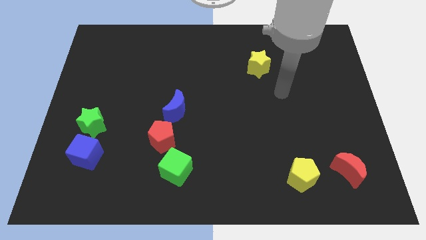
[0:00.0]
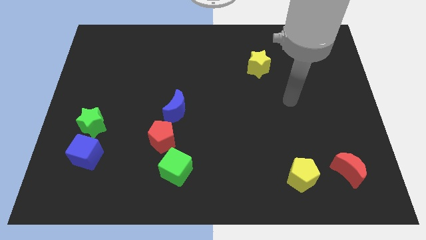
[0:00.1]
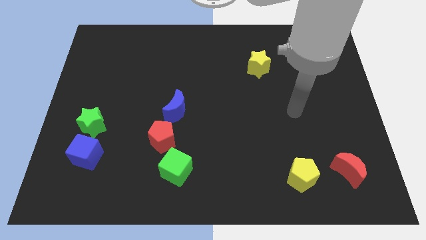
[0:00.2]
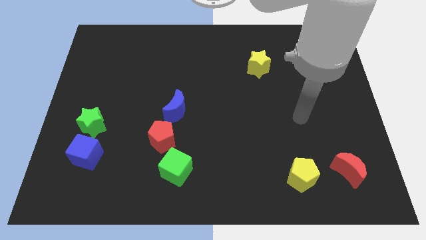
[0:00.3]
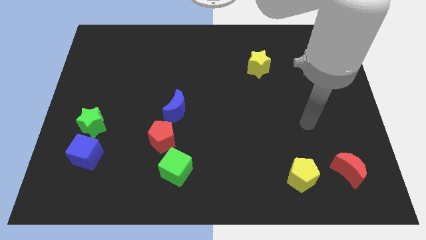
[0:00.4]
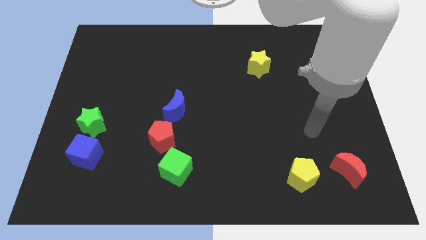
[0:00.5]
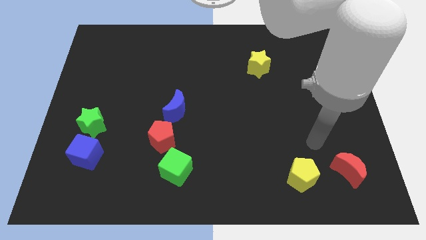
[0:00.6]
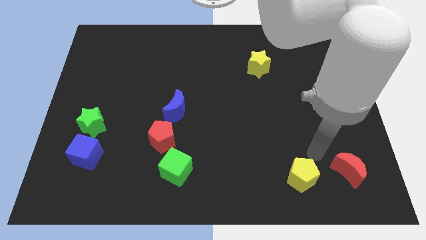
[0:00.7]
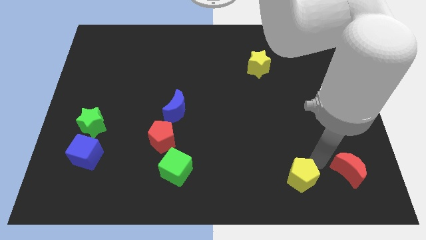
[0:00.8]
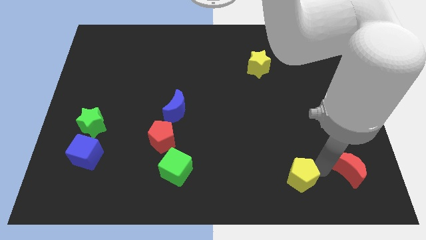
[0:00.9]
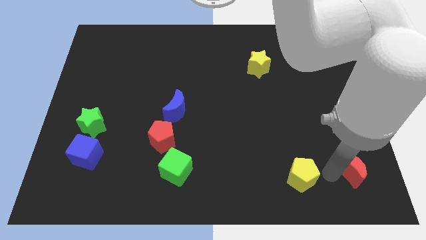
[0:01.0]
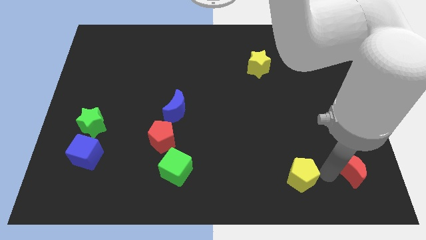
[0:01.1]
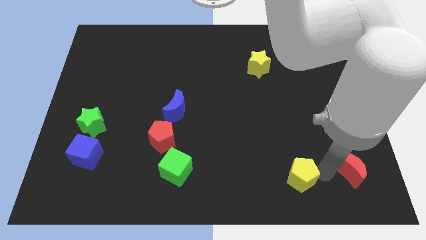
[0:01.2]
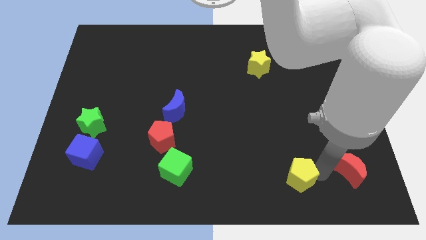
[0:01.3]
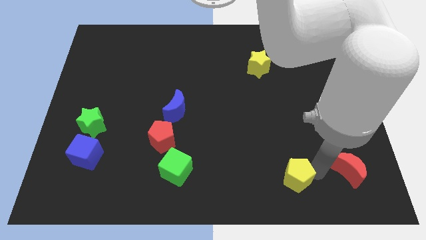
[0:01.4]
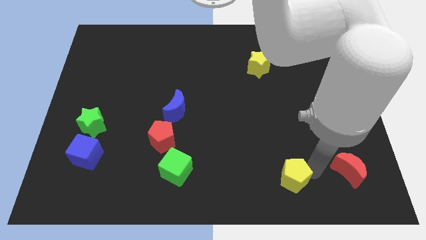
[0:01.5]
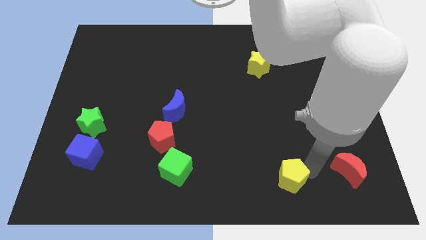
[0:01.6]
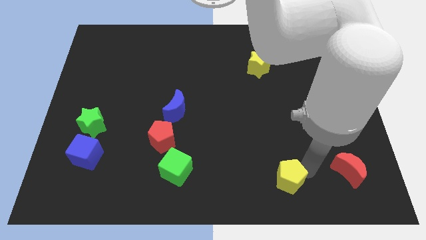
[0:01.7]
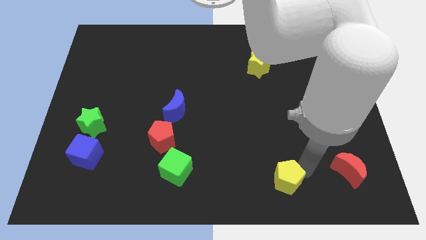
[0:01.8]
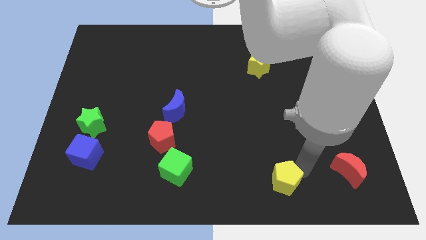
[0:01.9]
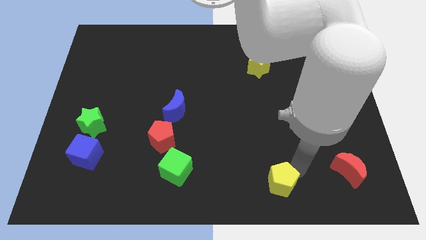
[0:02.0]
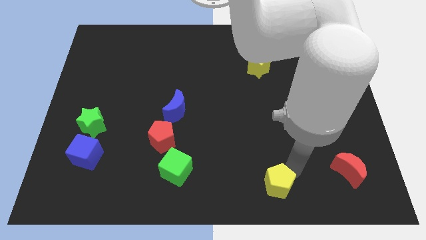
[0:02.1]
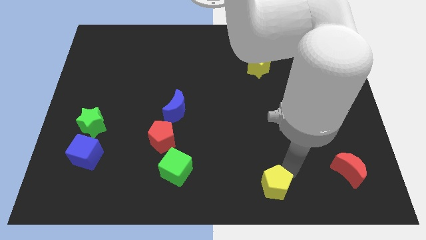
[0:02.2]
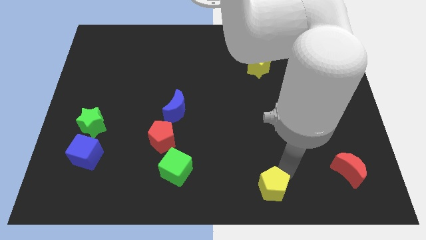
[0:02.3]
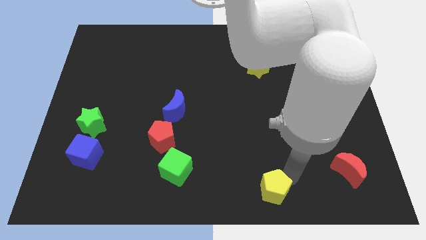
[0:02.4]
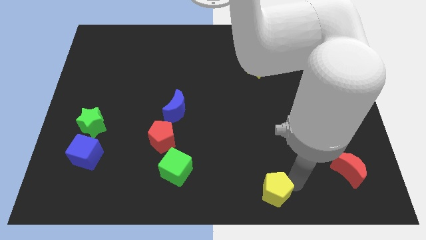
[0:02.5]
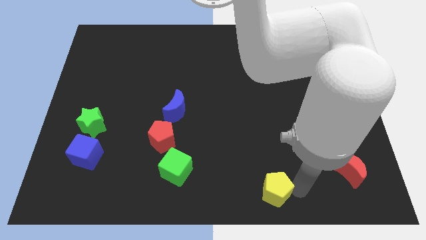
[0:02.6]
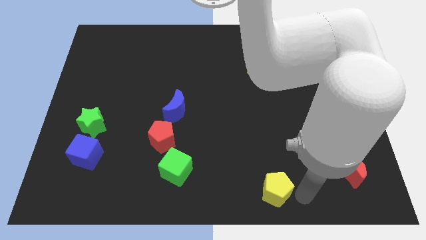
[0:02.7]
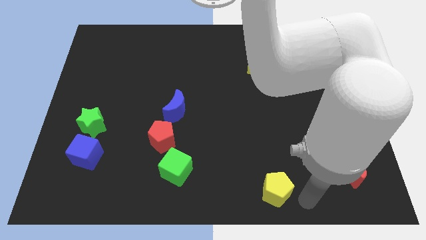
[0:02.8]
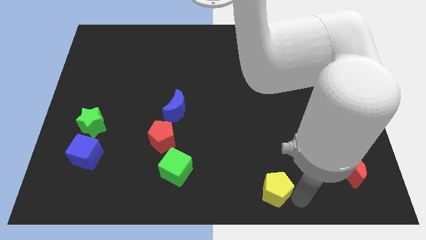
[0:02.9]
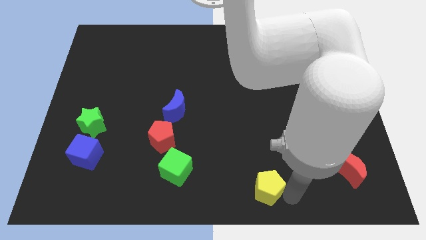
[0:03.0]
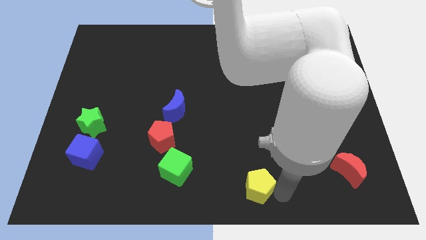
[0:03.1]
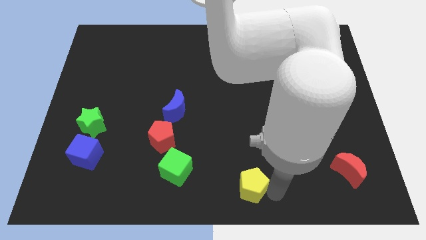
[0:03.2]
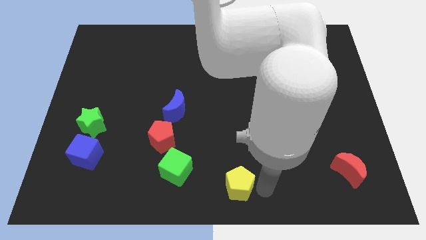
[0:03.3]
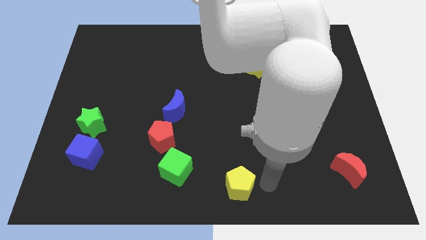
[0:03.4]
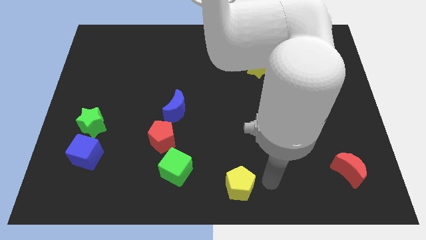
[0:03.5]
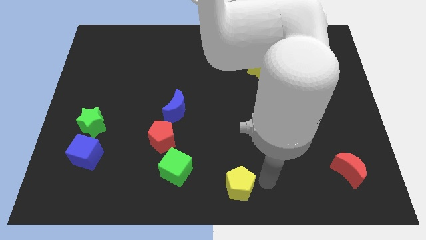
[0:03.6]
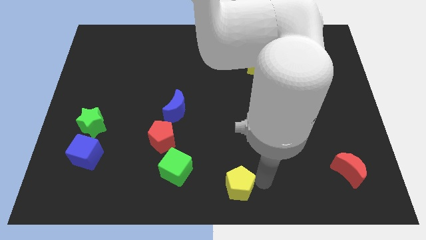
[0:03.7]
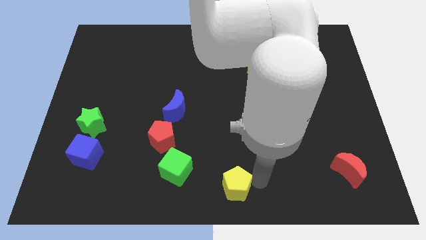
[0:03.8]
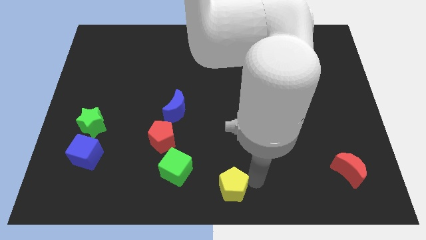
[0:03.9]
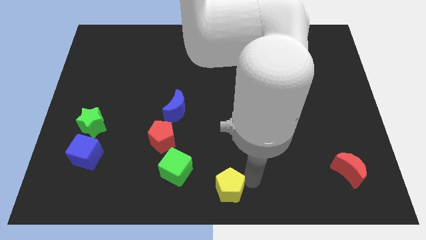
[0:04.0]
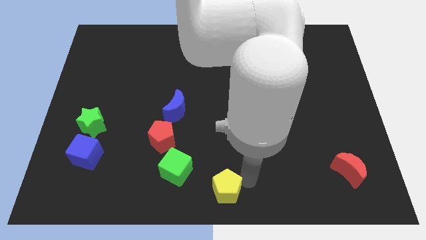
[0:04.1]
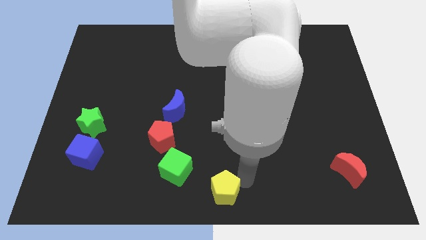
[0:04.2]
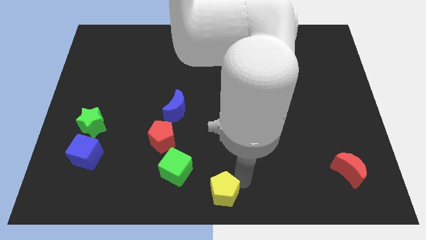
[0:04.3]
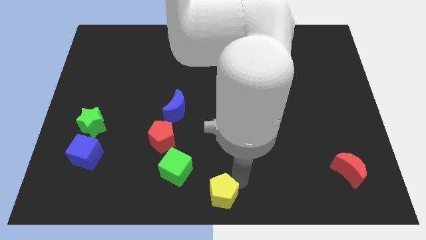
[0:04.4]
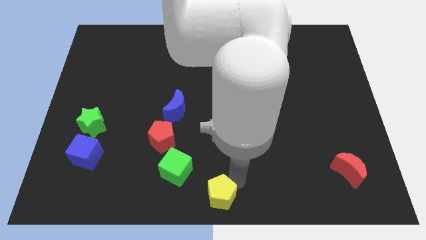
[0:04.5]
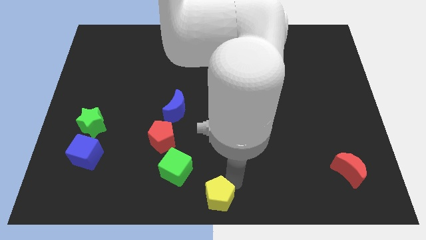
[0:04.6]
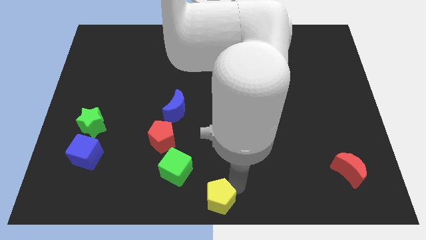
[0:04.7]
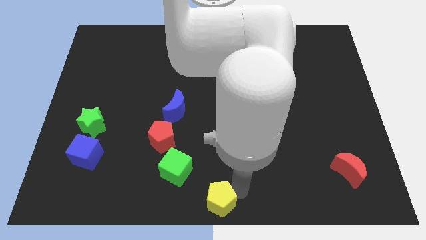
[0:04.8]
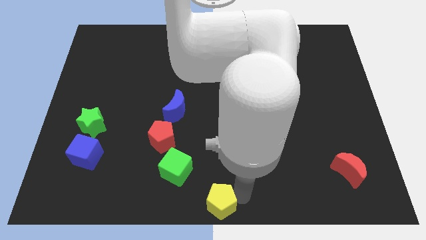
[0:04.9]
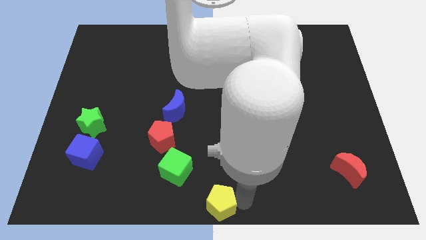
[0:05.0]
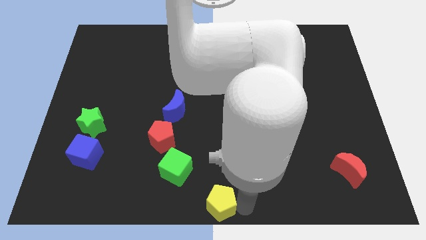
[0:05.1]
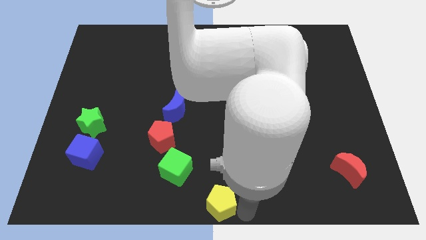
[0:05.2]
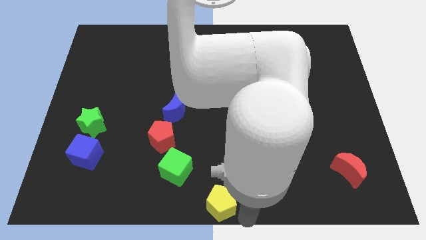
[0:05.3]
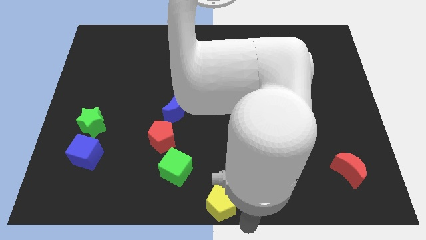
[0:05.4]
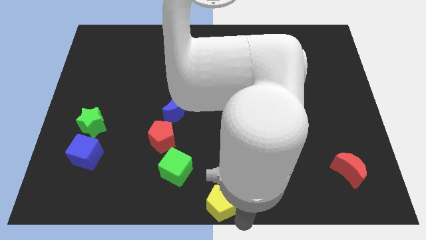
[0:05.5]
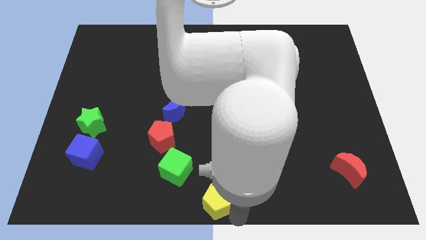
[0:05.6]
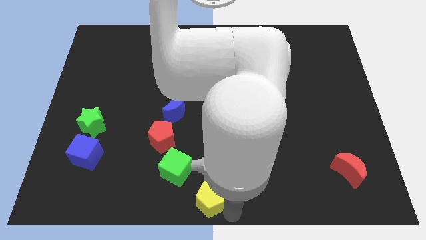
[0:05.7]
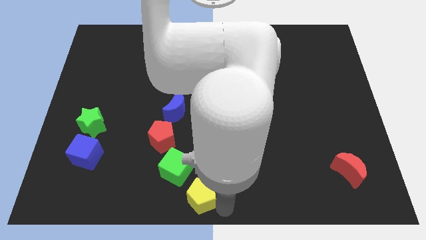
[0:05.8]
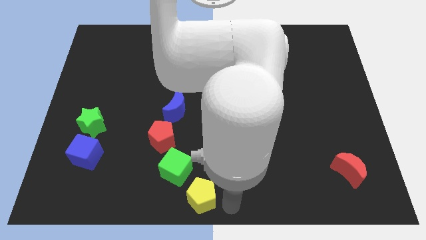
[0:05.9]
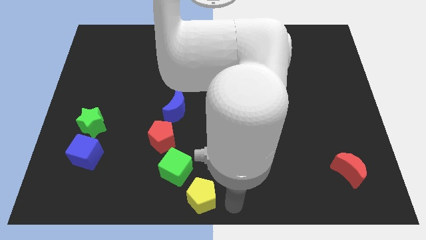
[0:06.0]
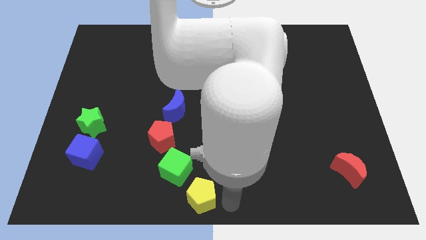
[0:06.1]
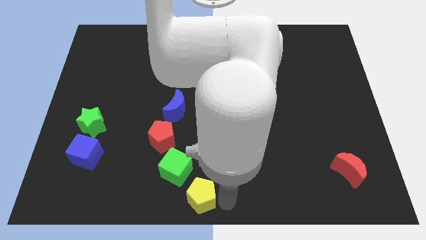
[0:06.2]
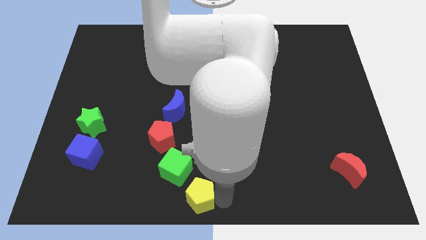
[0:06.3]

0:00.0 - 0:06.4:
move the yellow pentagon to the left

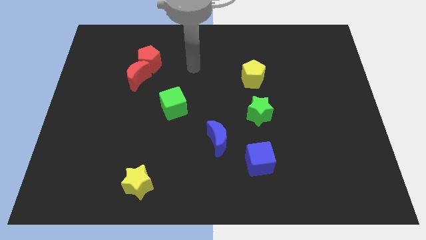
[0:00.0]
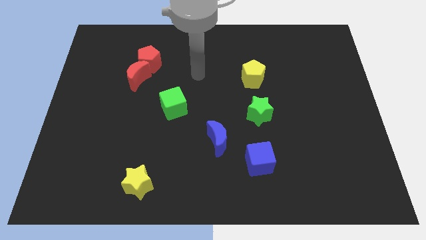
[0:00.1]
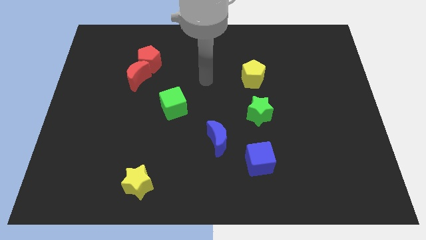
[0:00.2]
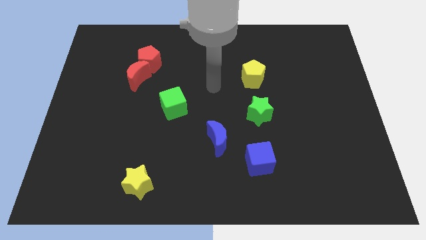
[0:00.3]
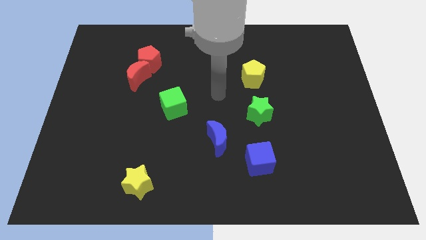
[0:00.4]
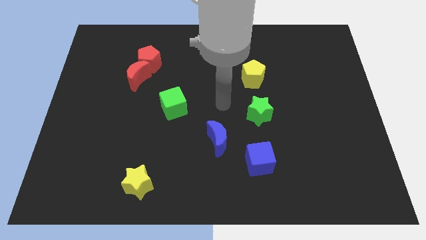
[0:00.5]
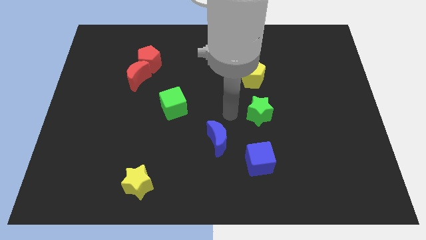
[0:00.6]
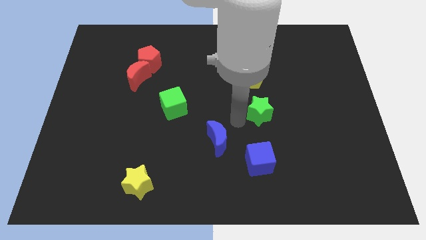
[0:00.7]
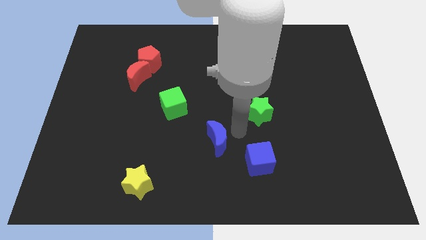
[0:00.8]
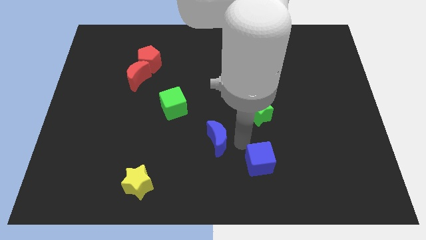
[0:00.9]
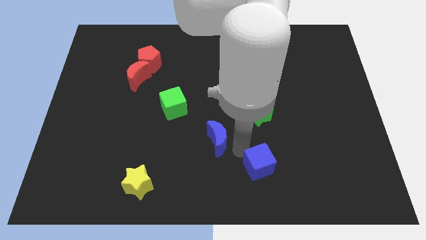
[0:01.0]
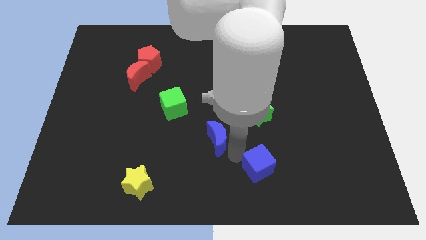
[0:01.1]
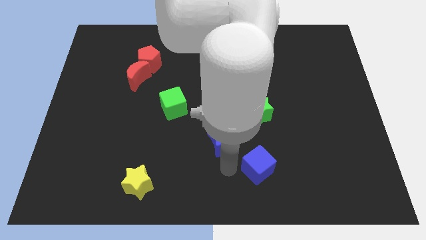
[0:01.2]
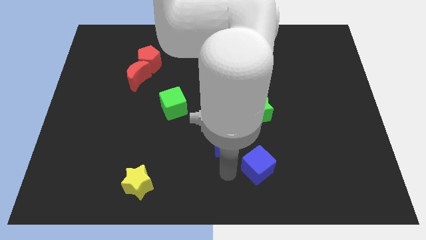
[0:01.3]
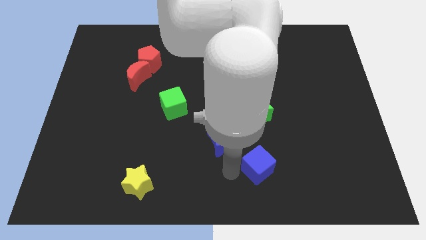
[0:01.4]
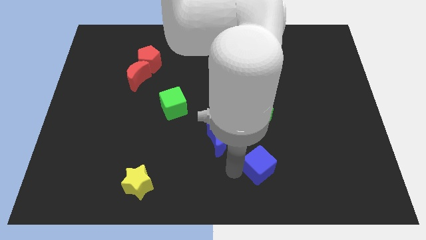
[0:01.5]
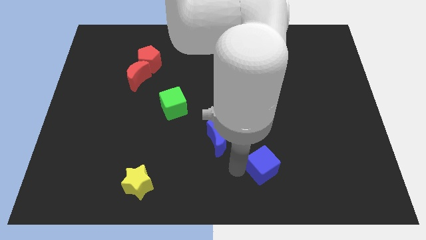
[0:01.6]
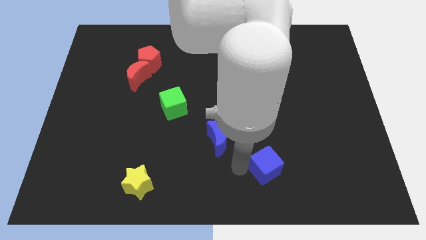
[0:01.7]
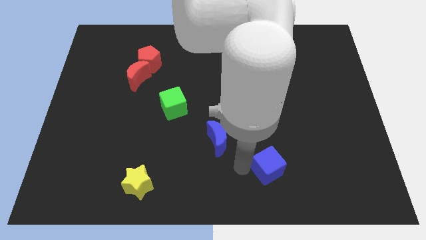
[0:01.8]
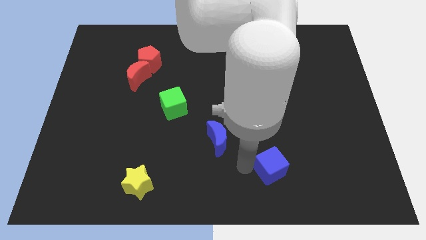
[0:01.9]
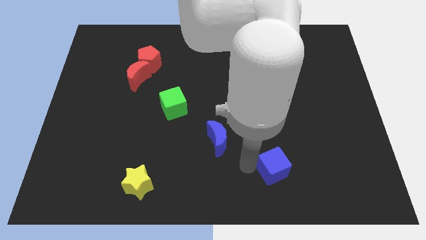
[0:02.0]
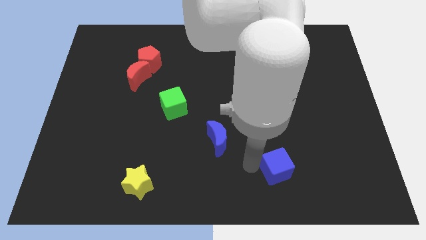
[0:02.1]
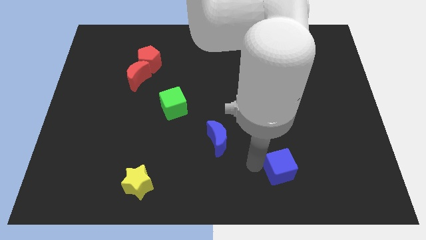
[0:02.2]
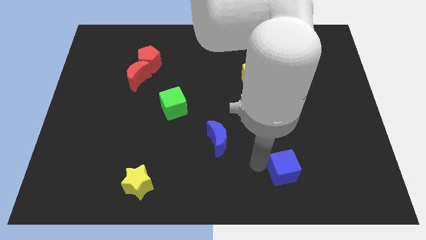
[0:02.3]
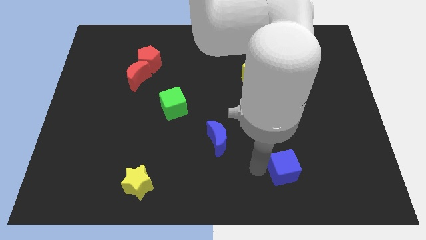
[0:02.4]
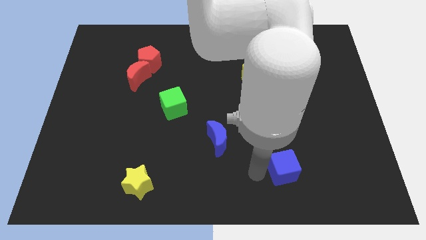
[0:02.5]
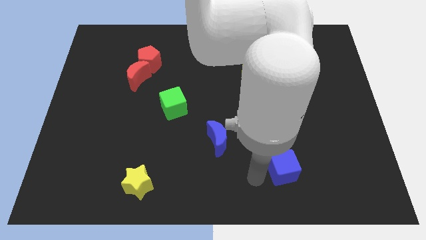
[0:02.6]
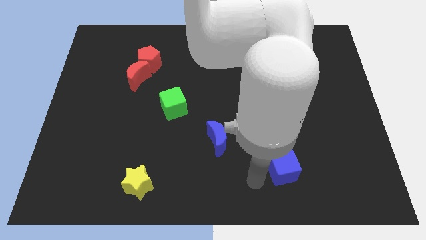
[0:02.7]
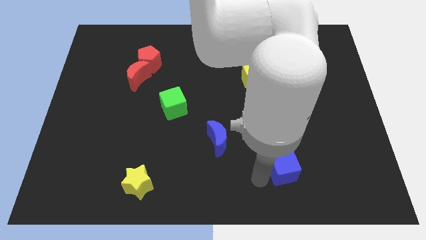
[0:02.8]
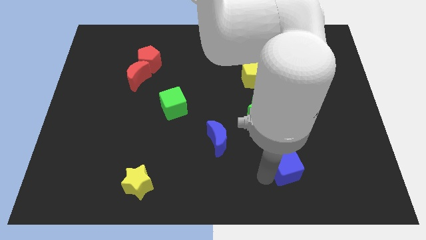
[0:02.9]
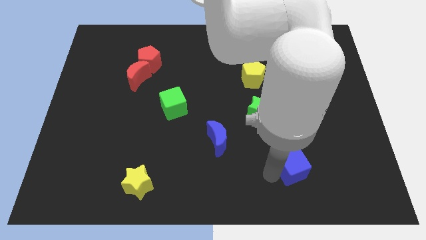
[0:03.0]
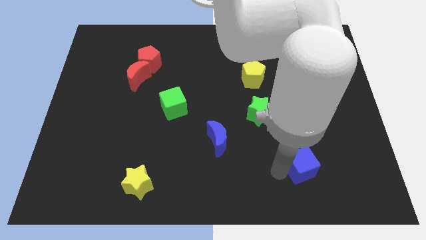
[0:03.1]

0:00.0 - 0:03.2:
slide the blue cube slightly right
